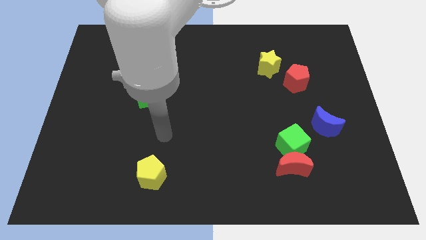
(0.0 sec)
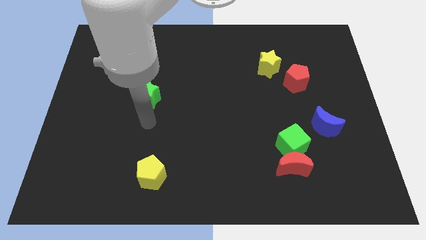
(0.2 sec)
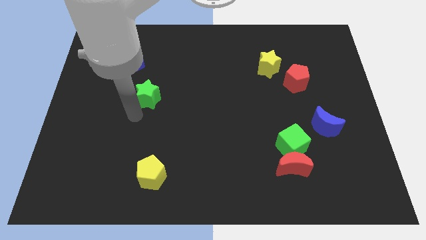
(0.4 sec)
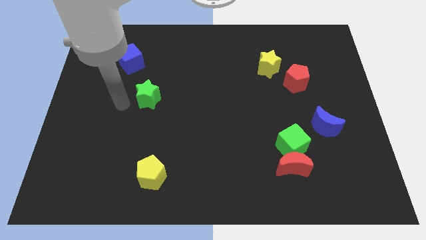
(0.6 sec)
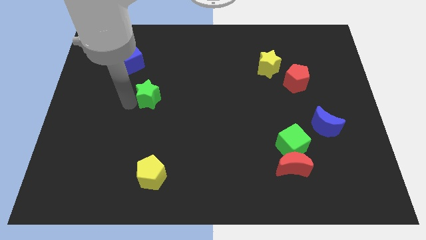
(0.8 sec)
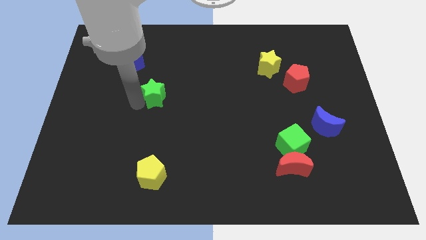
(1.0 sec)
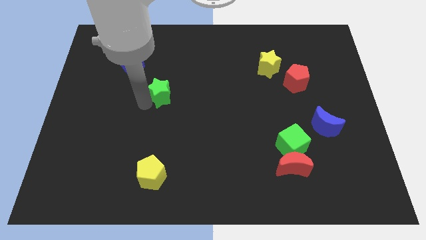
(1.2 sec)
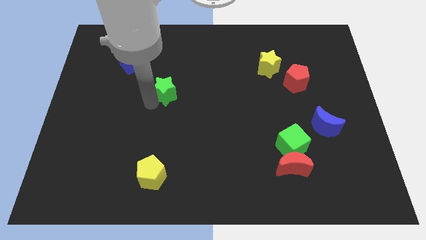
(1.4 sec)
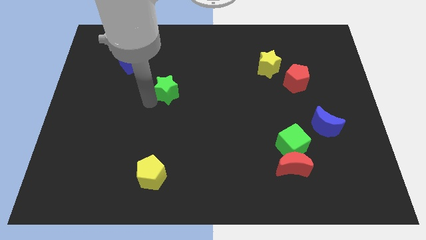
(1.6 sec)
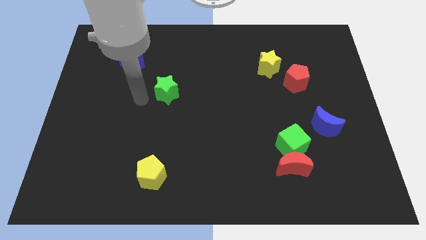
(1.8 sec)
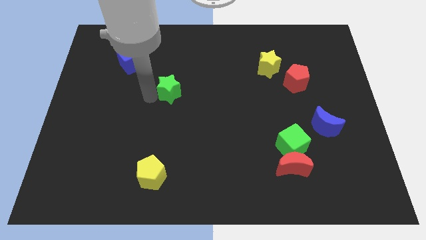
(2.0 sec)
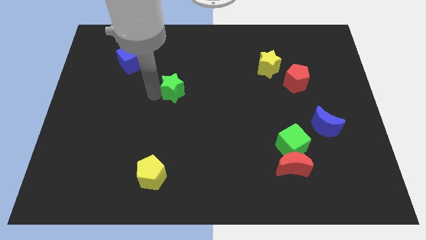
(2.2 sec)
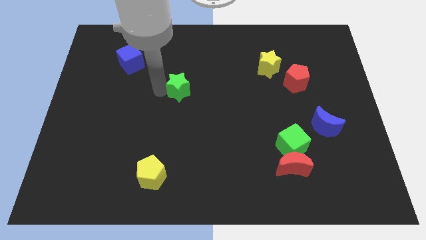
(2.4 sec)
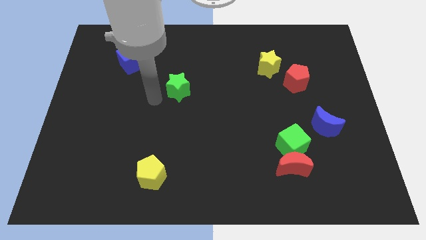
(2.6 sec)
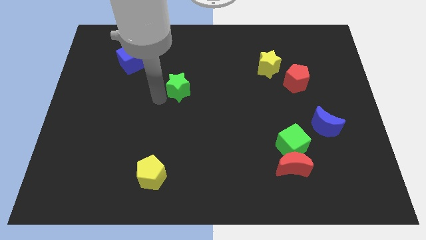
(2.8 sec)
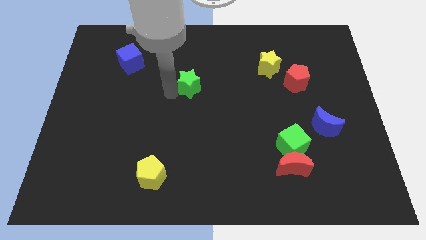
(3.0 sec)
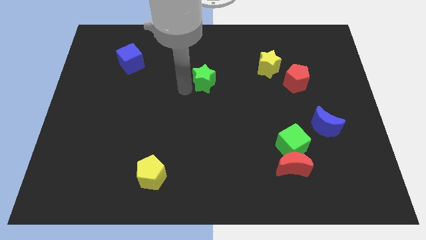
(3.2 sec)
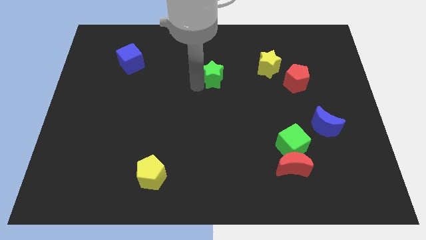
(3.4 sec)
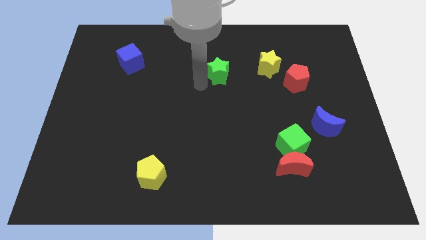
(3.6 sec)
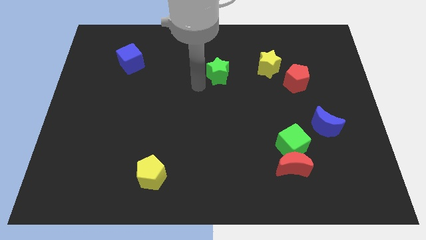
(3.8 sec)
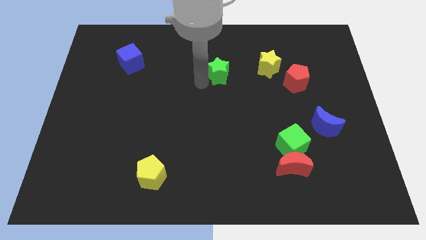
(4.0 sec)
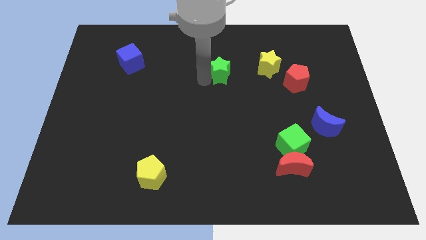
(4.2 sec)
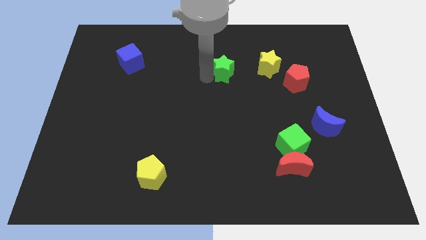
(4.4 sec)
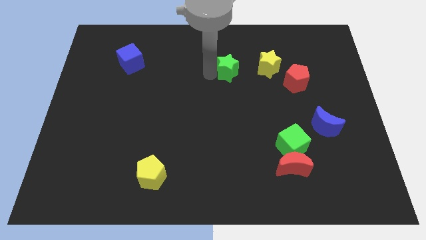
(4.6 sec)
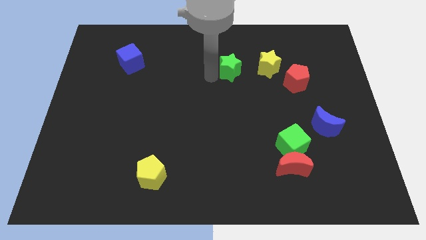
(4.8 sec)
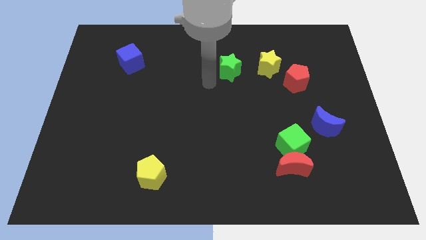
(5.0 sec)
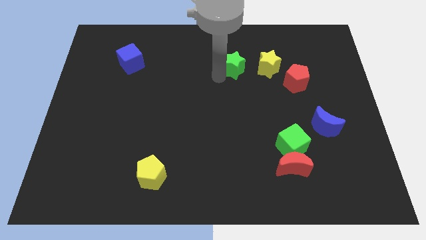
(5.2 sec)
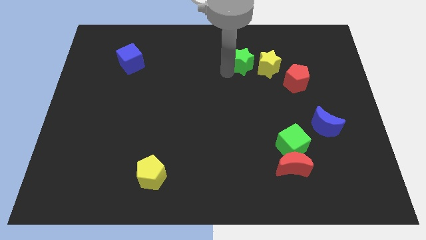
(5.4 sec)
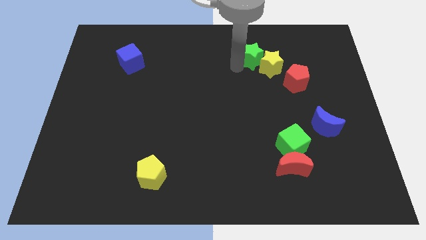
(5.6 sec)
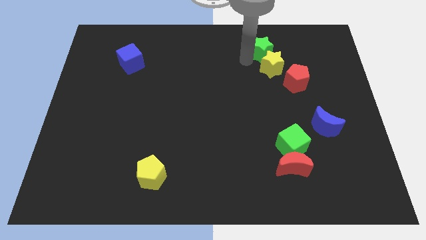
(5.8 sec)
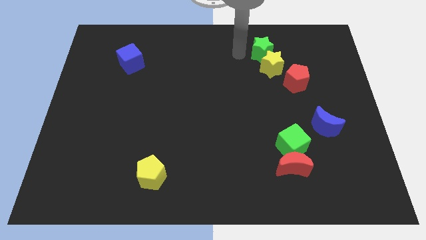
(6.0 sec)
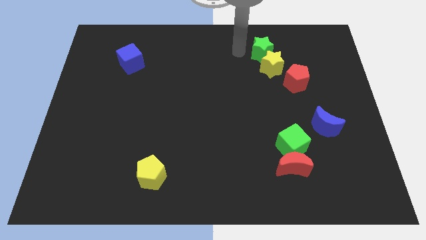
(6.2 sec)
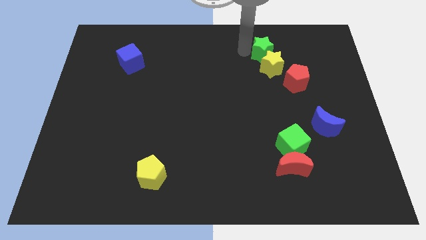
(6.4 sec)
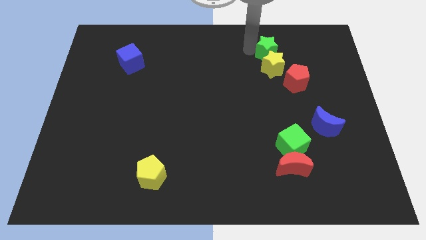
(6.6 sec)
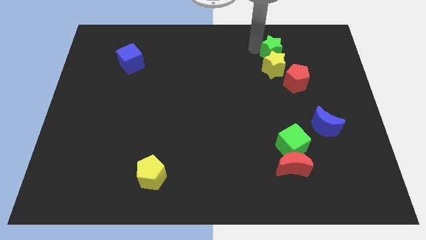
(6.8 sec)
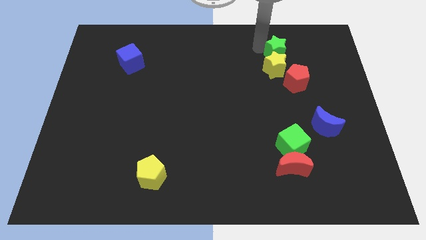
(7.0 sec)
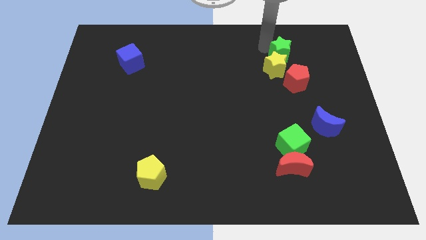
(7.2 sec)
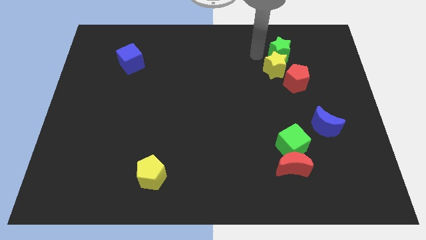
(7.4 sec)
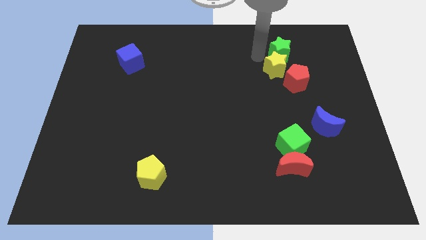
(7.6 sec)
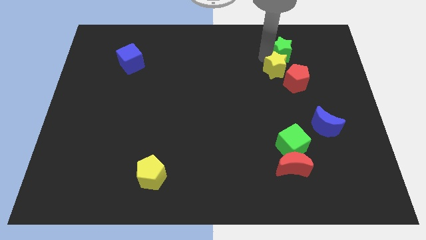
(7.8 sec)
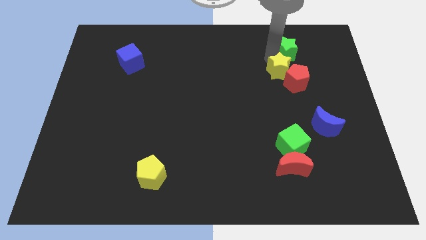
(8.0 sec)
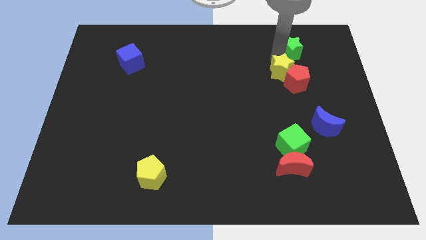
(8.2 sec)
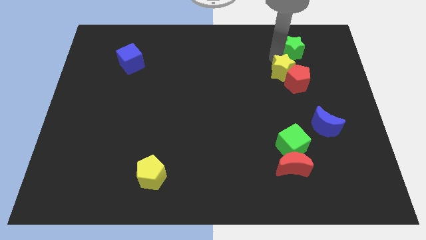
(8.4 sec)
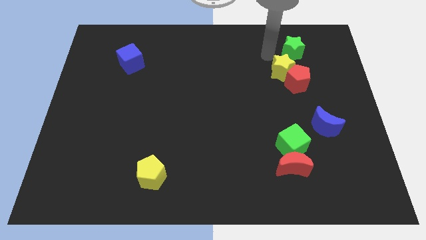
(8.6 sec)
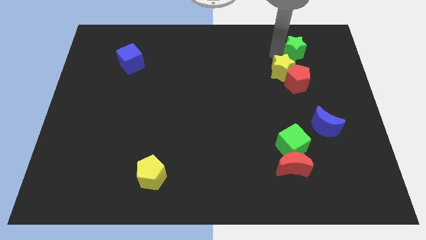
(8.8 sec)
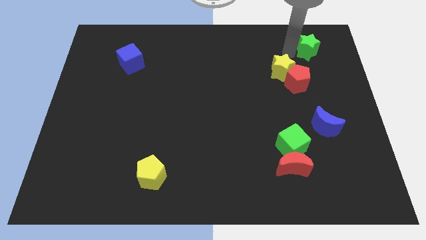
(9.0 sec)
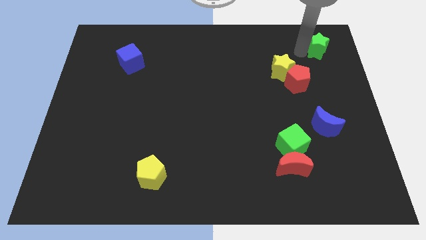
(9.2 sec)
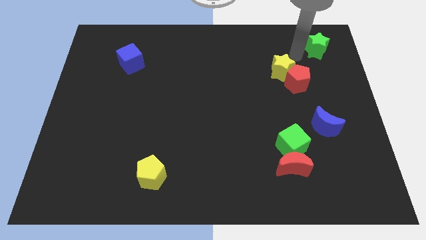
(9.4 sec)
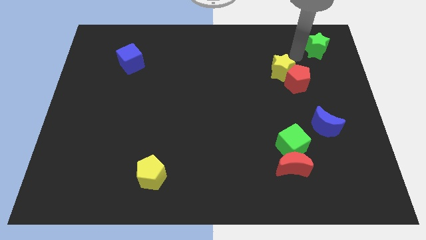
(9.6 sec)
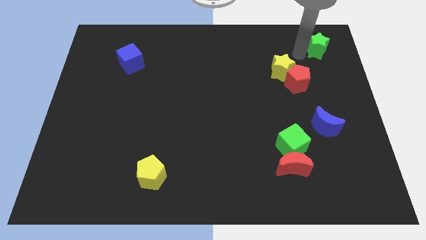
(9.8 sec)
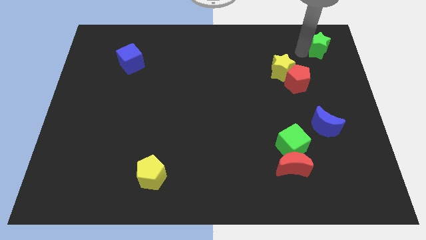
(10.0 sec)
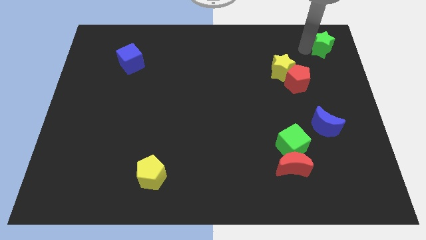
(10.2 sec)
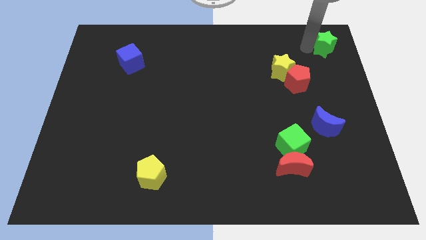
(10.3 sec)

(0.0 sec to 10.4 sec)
put the green star to the top right
